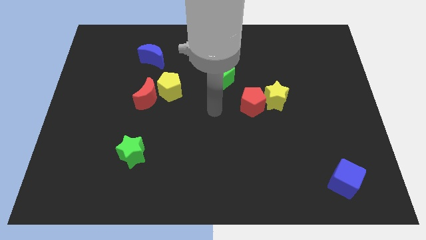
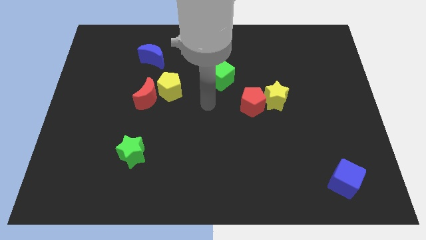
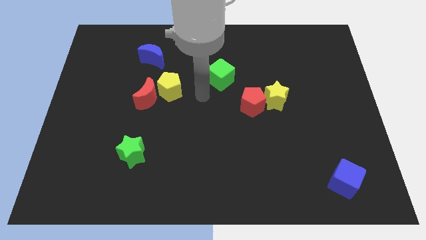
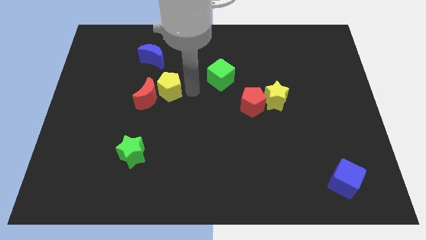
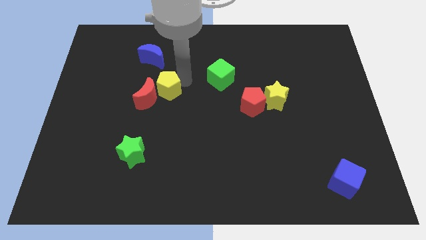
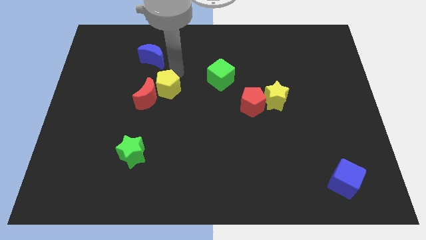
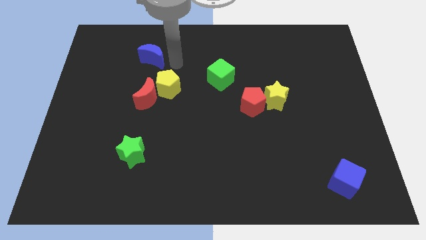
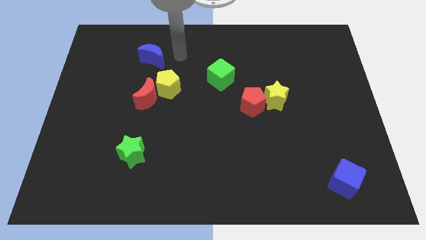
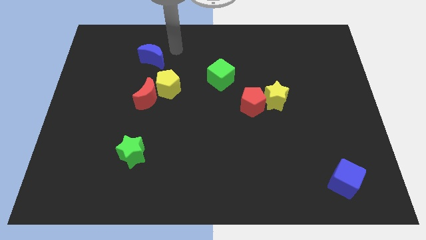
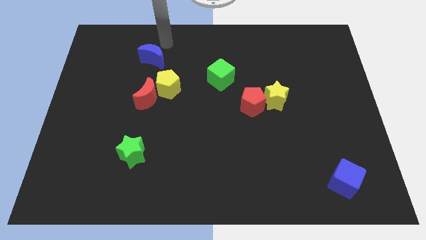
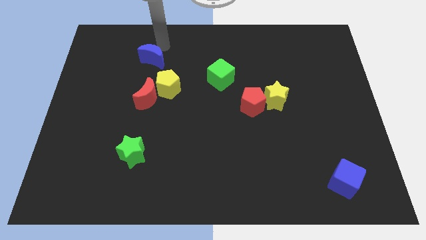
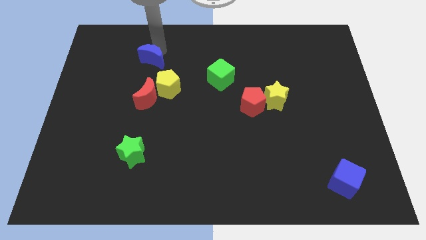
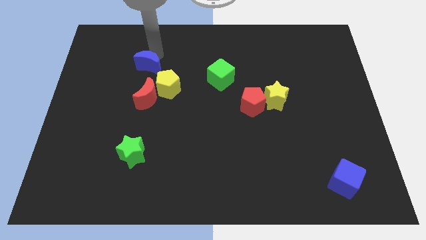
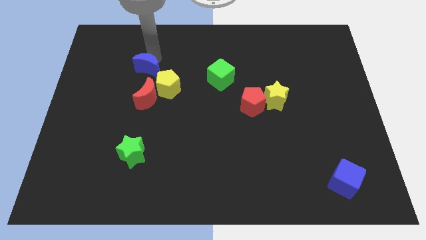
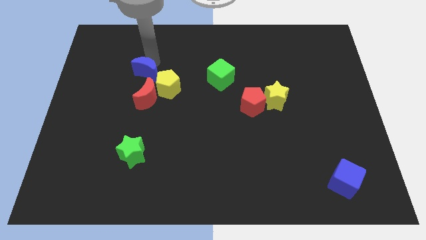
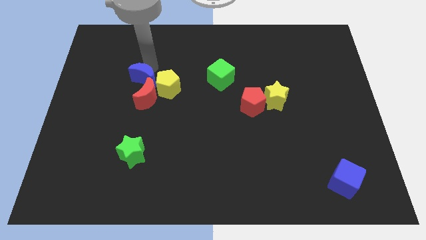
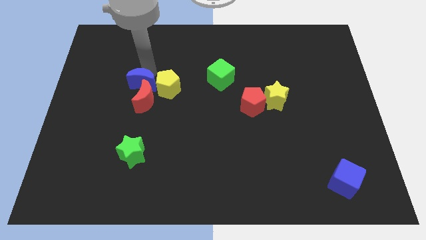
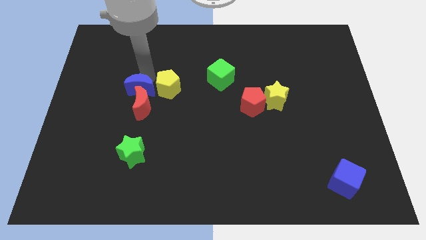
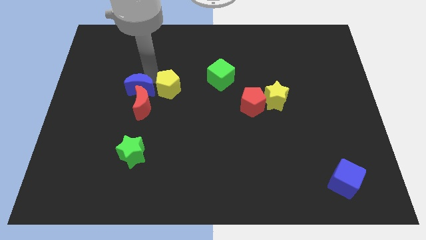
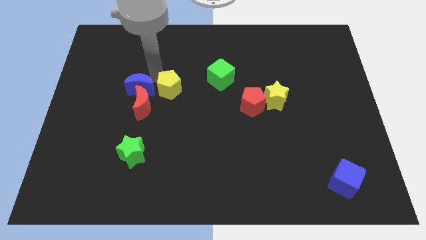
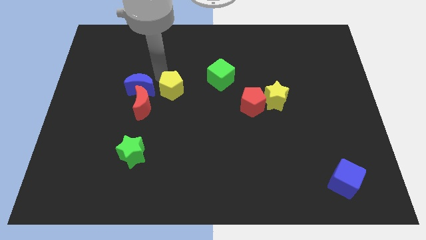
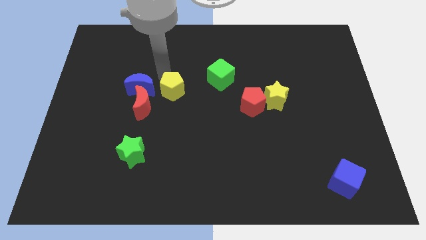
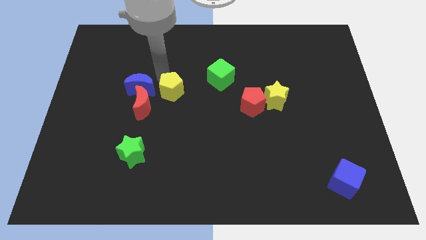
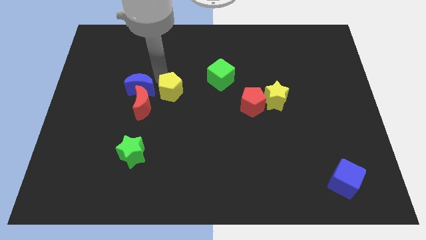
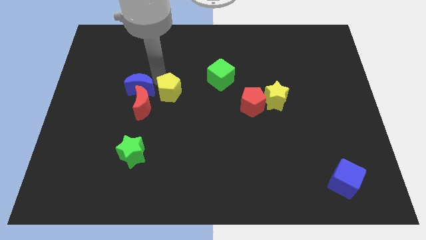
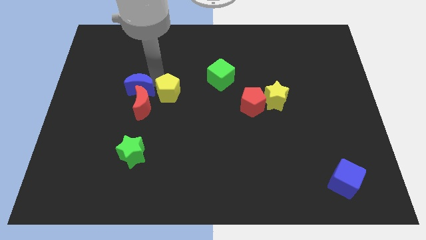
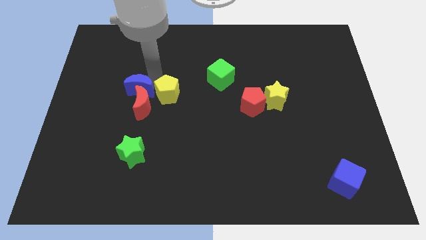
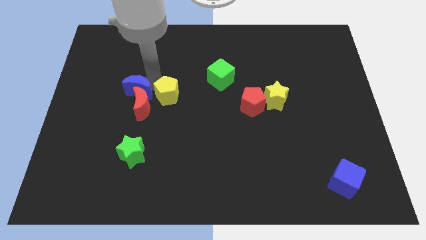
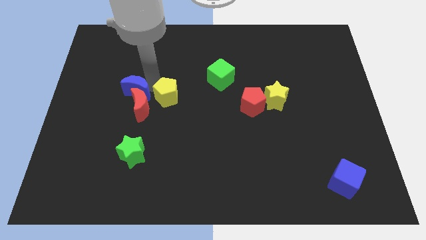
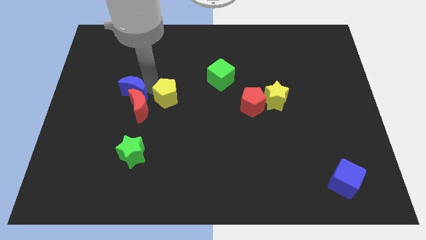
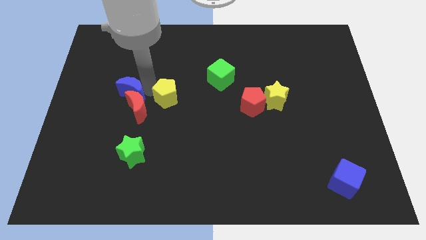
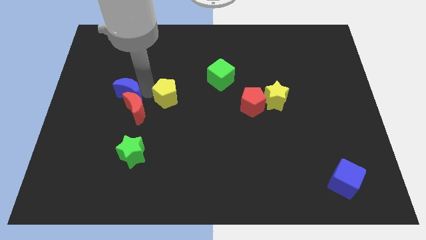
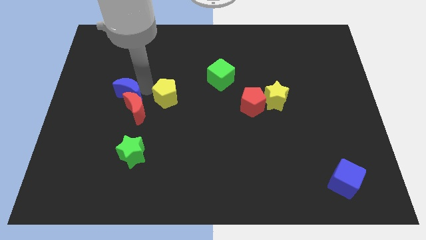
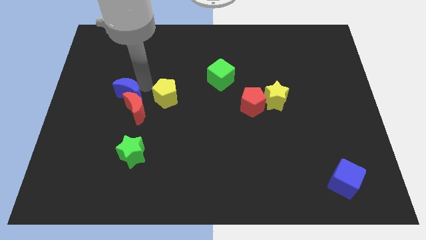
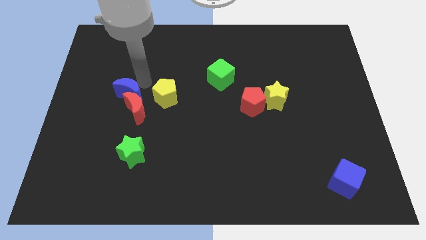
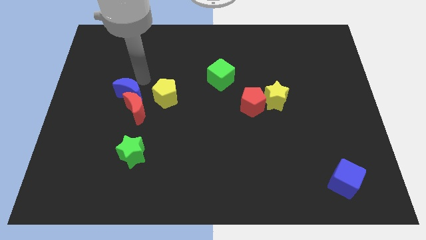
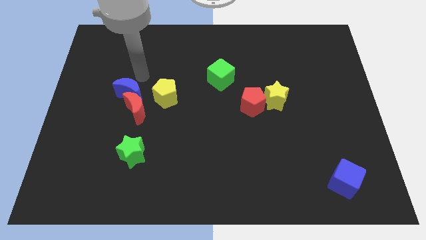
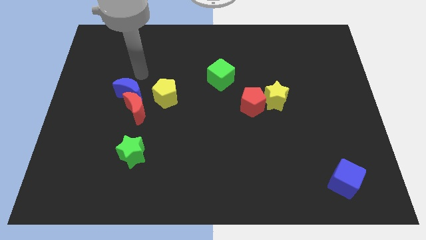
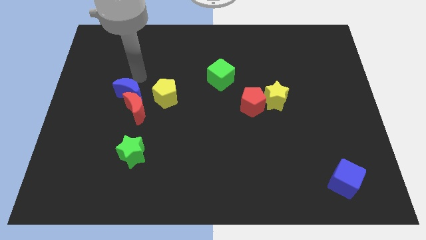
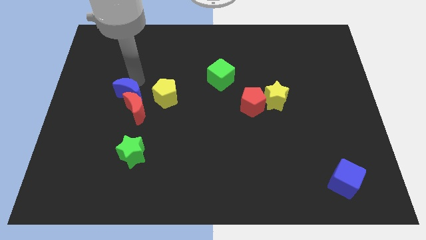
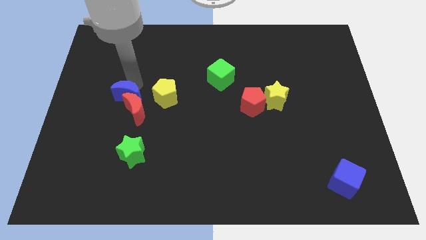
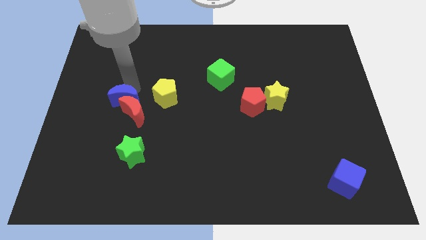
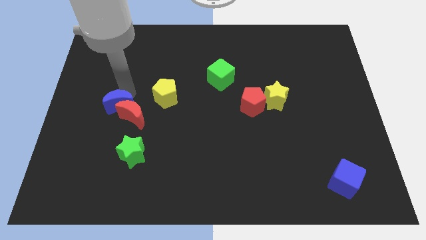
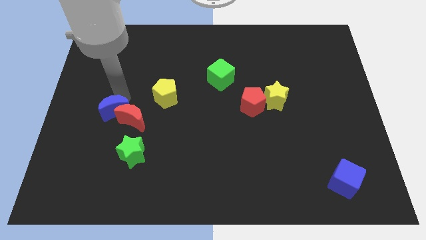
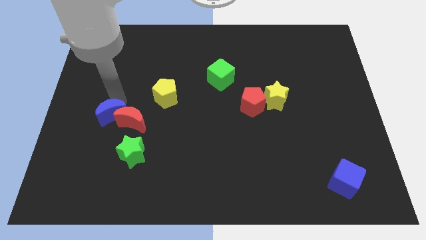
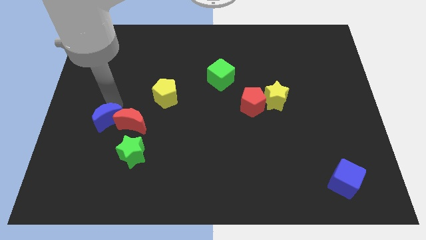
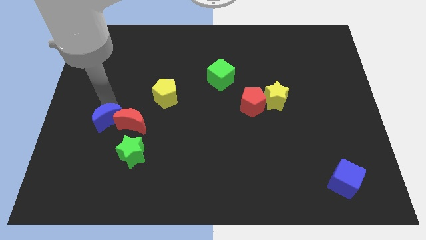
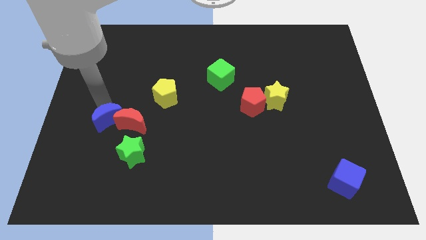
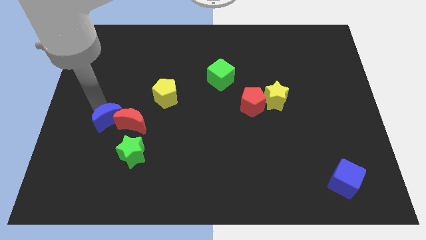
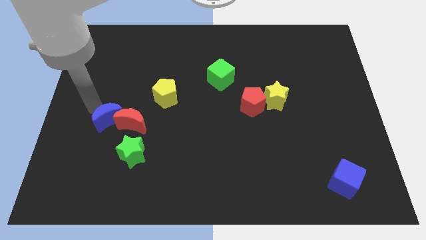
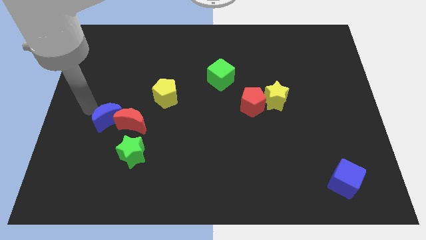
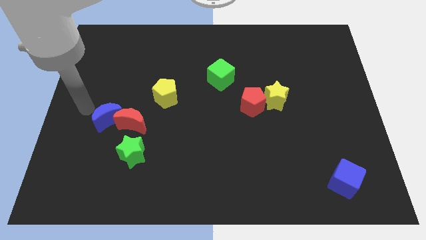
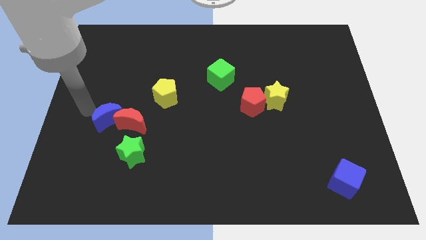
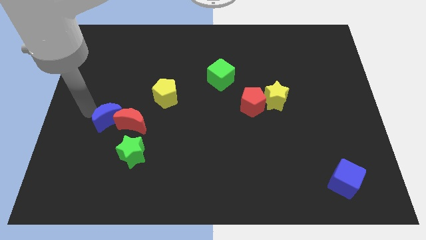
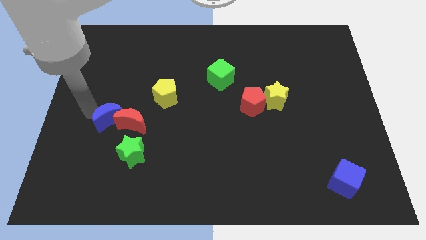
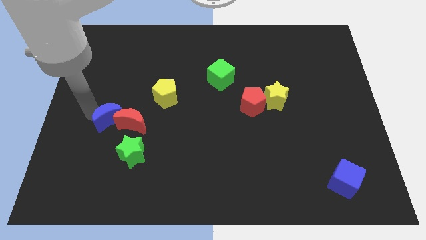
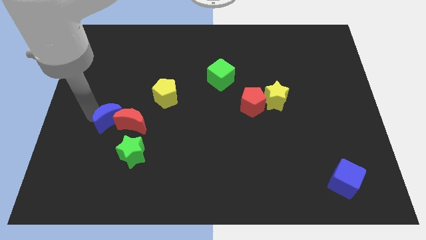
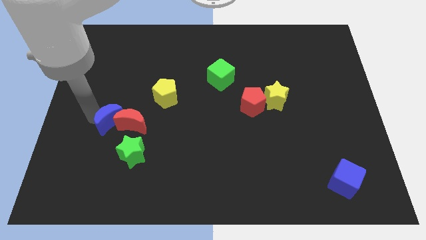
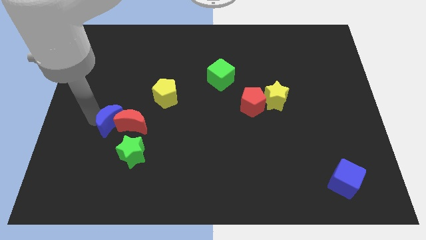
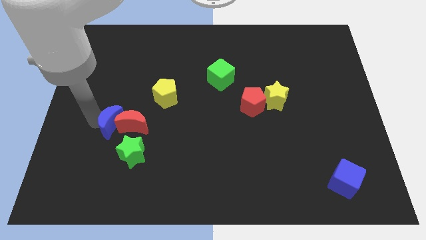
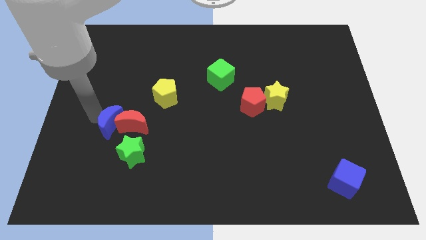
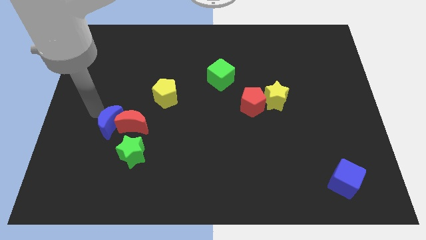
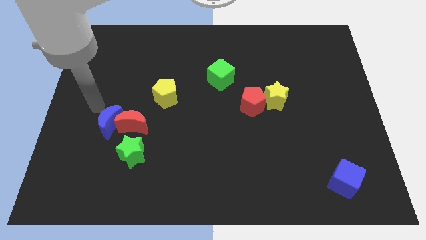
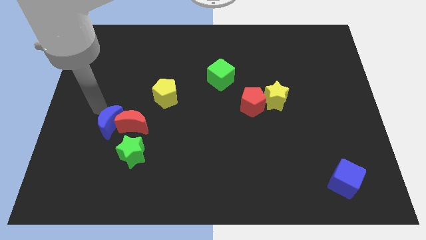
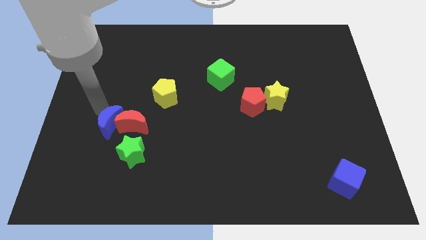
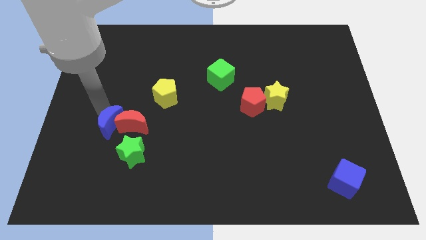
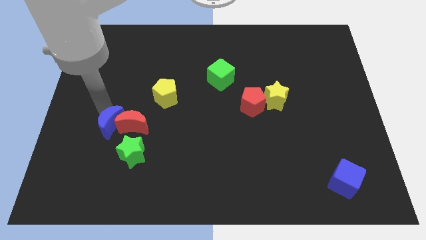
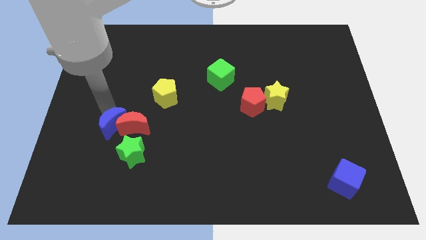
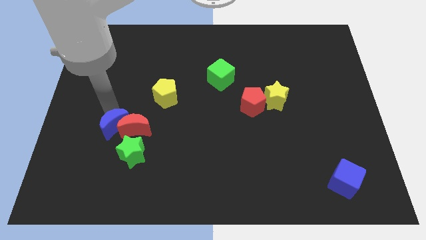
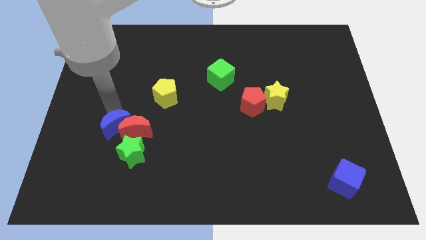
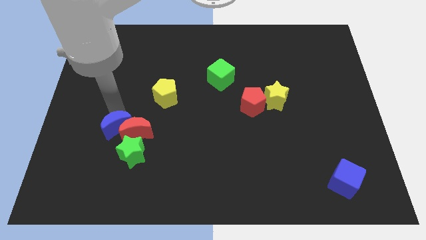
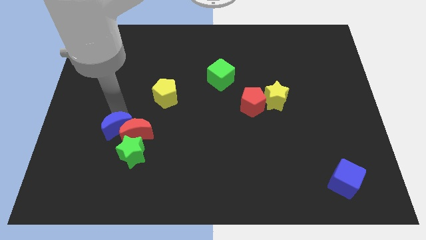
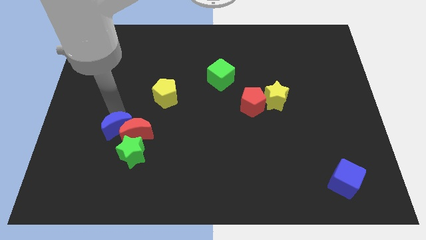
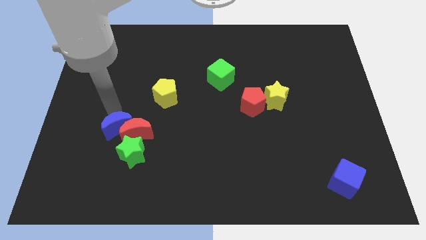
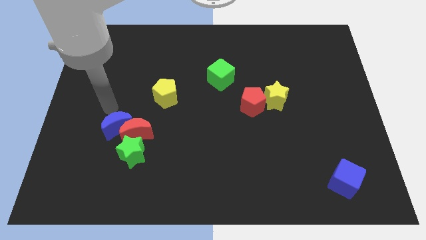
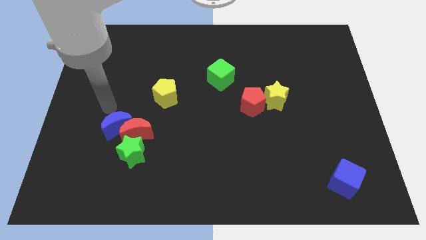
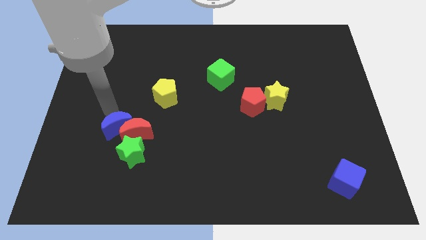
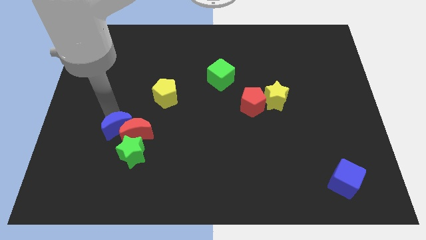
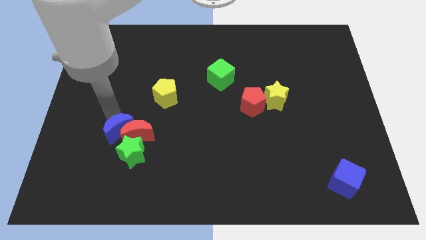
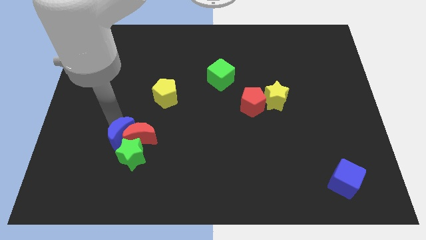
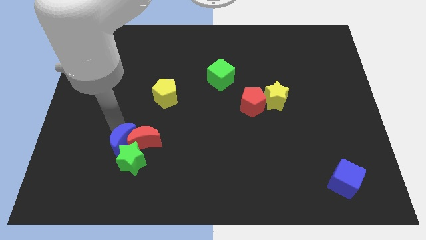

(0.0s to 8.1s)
push the blue moon close to the green star

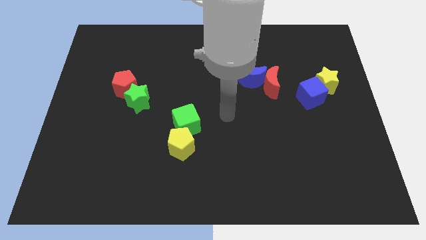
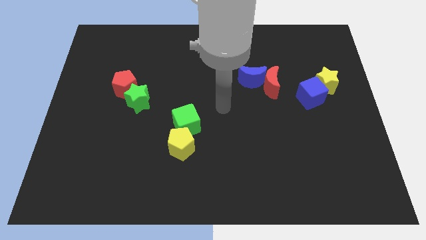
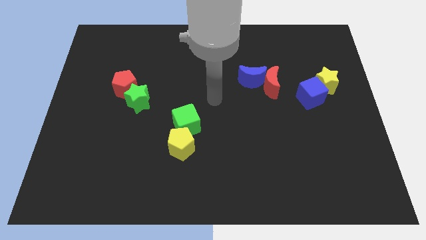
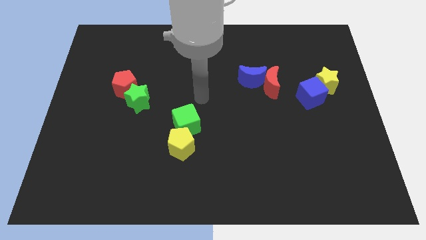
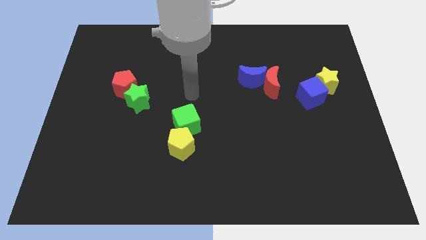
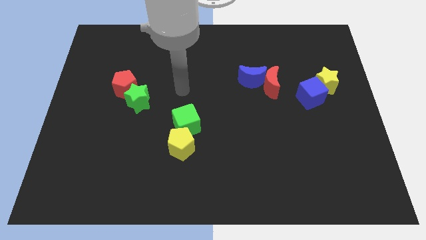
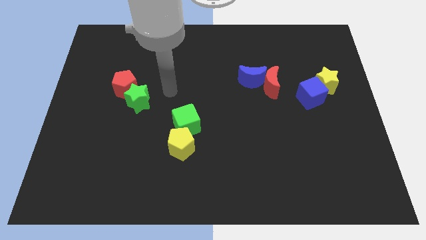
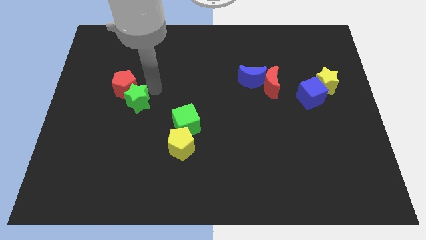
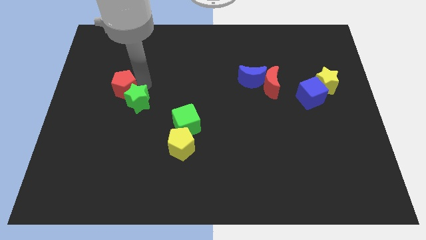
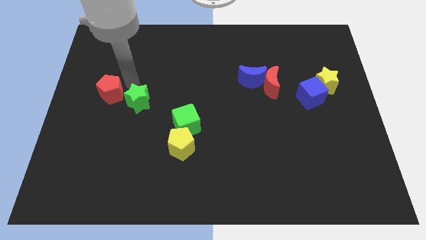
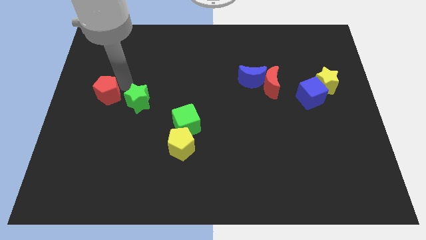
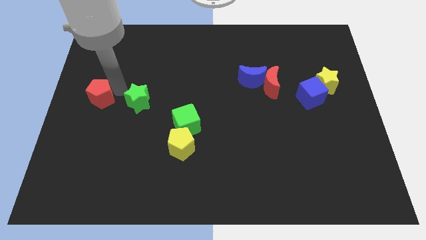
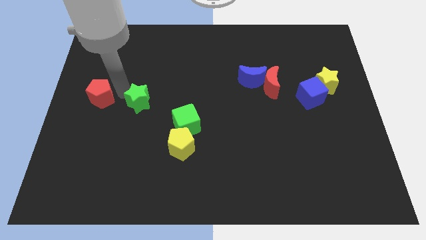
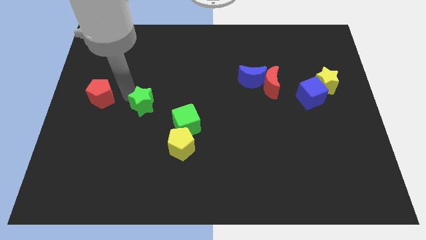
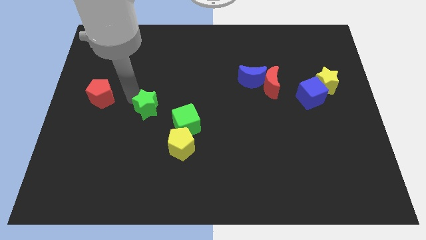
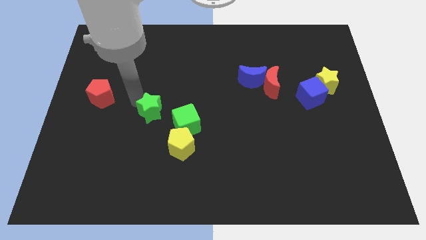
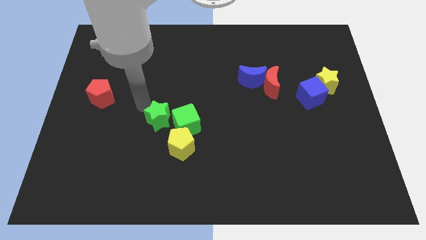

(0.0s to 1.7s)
move the green star close to the green cube
